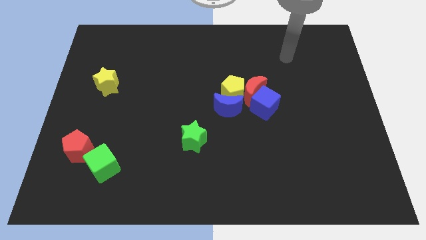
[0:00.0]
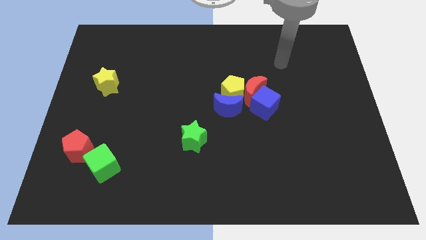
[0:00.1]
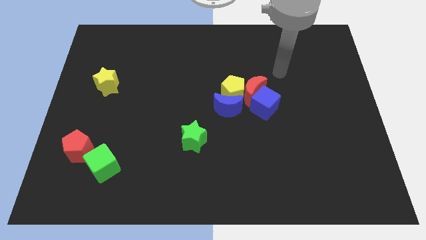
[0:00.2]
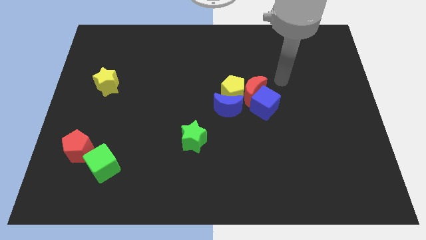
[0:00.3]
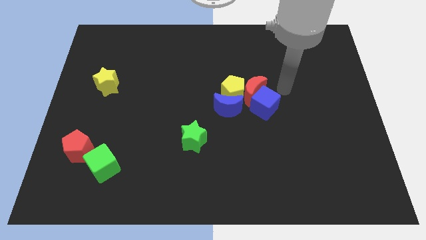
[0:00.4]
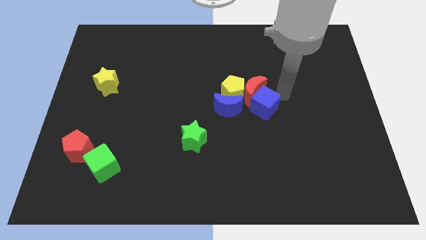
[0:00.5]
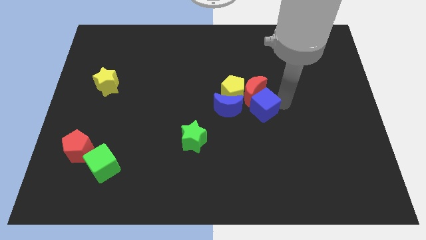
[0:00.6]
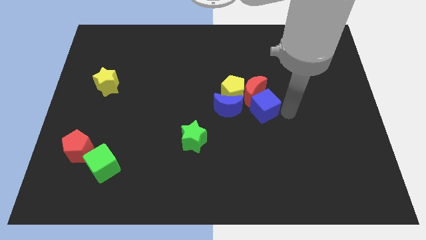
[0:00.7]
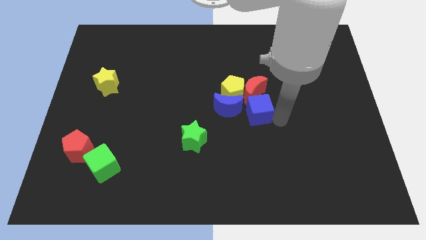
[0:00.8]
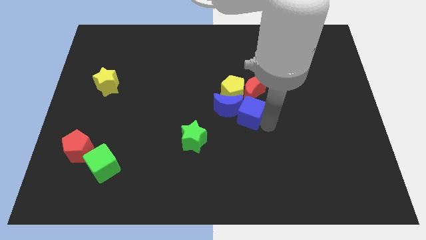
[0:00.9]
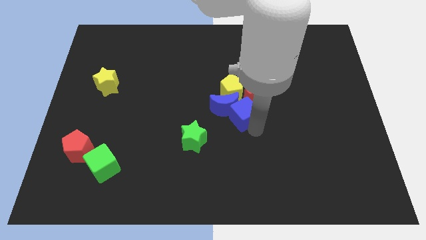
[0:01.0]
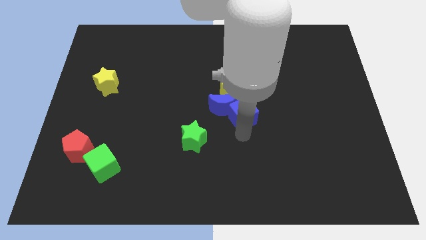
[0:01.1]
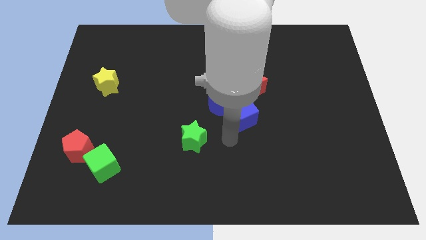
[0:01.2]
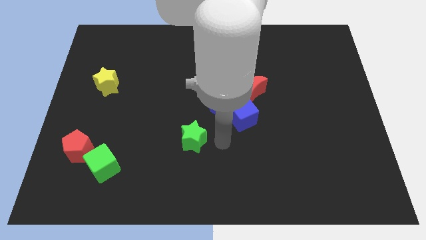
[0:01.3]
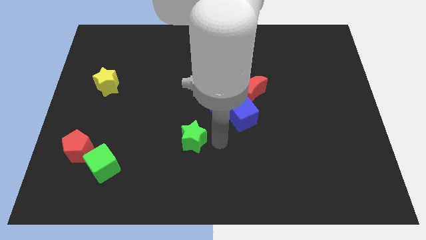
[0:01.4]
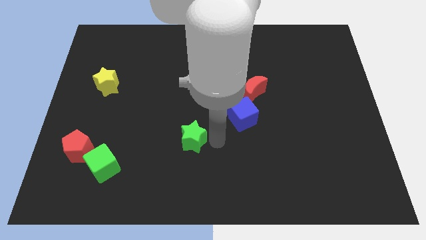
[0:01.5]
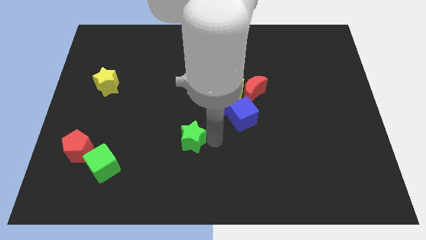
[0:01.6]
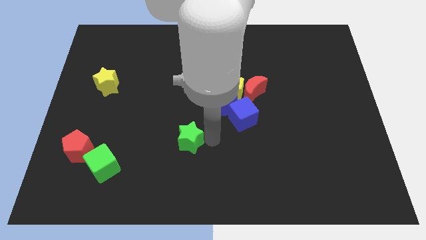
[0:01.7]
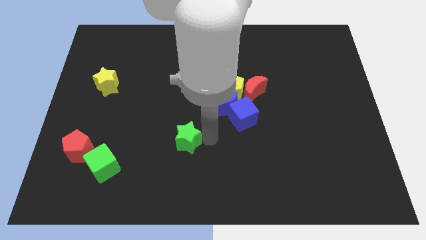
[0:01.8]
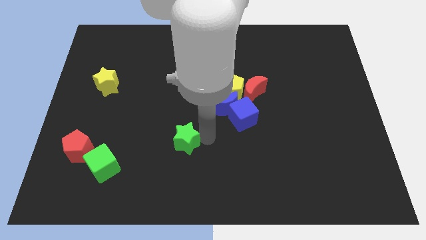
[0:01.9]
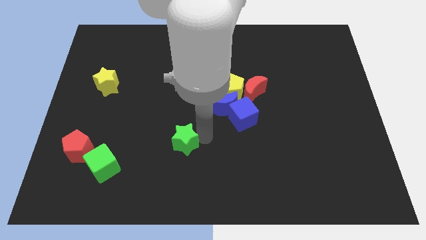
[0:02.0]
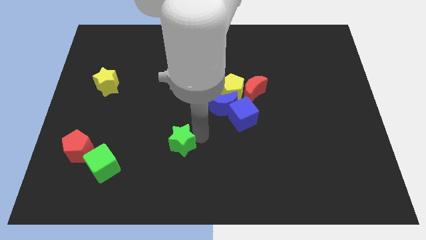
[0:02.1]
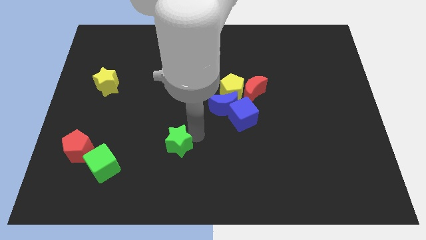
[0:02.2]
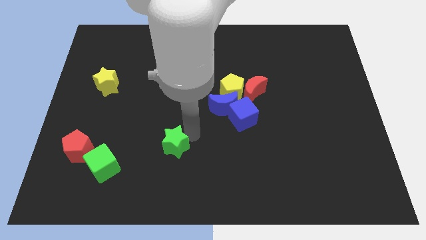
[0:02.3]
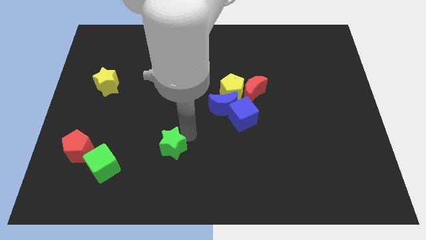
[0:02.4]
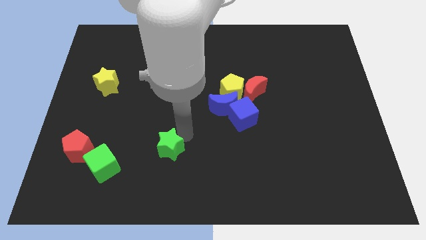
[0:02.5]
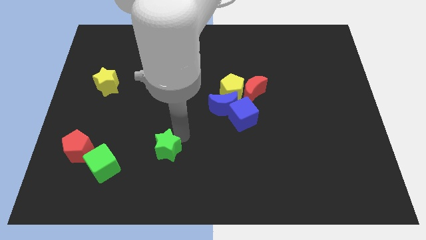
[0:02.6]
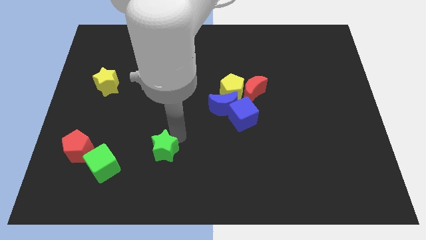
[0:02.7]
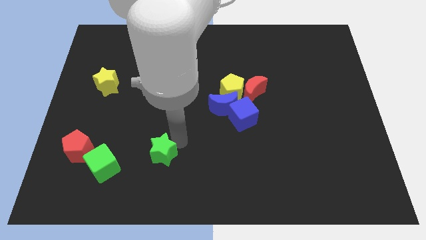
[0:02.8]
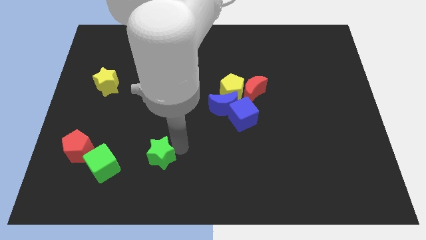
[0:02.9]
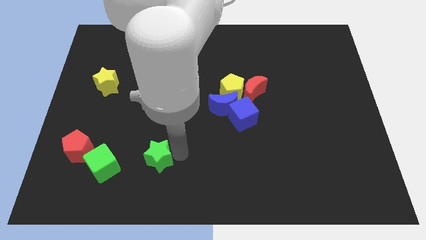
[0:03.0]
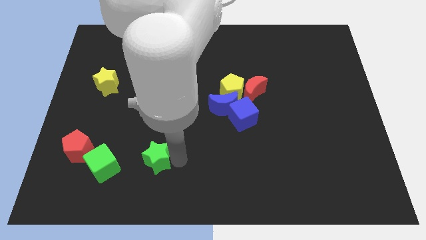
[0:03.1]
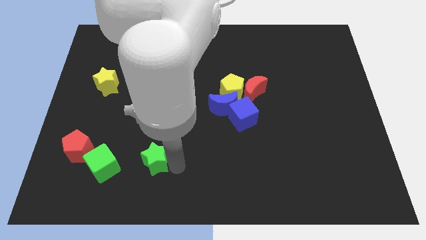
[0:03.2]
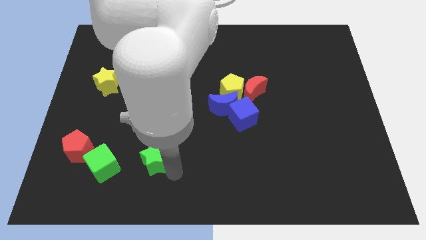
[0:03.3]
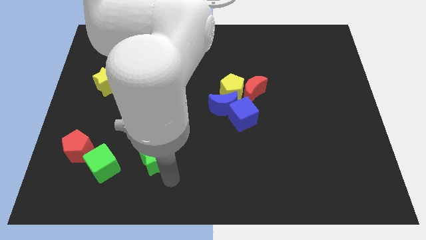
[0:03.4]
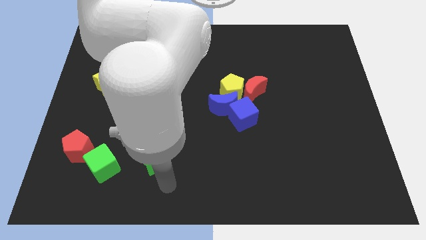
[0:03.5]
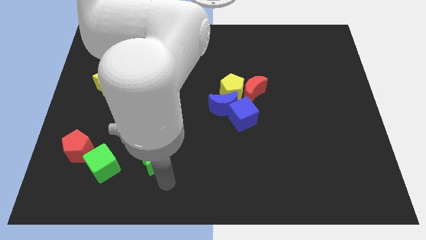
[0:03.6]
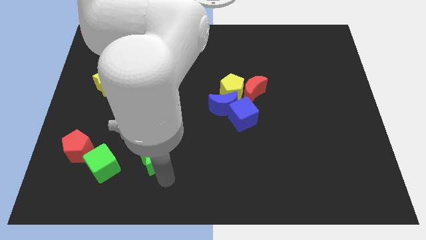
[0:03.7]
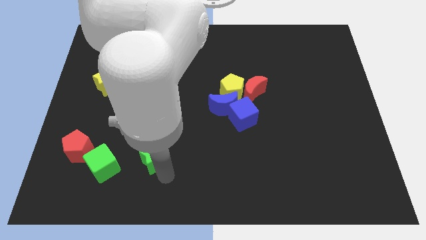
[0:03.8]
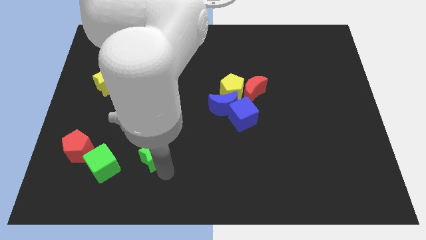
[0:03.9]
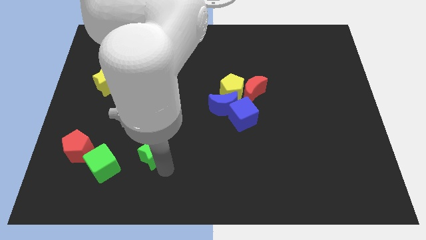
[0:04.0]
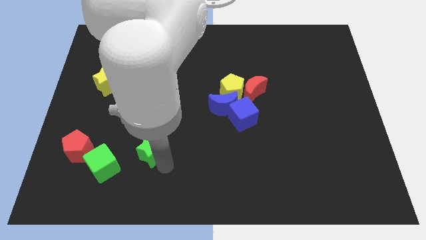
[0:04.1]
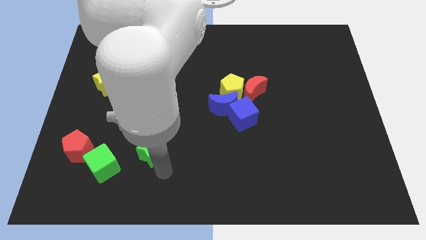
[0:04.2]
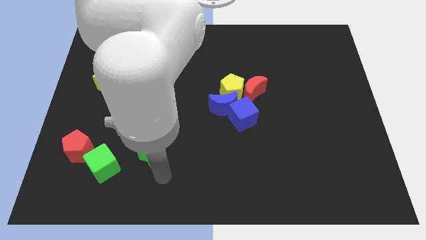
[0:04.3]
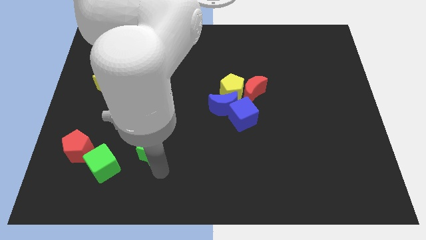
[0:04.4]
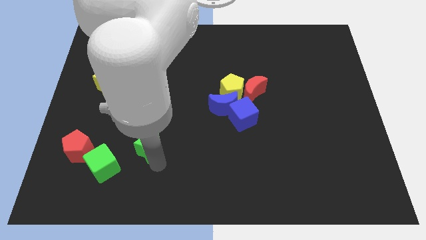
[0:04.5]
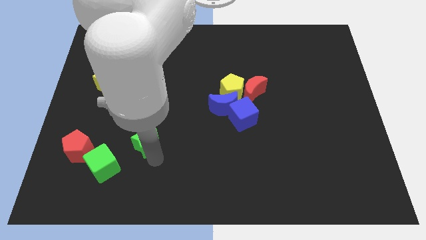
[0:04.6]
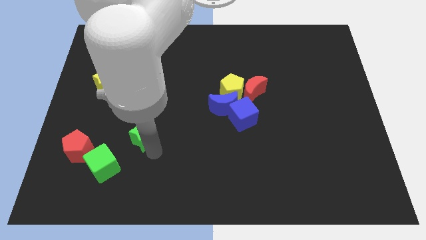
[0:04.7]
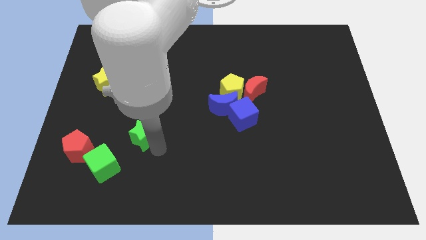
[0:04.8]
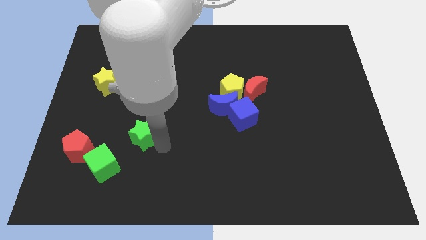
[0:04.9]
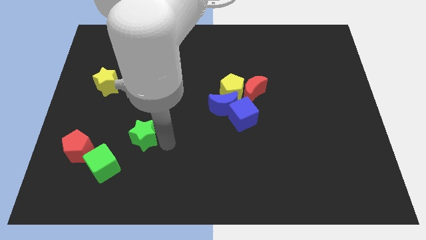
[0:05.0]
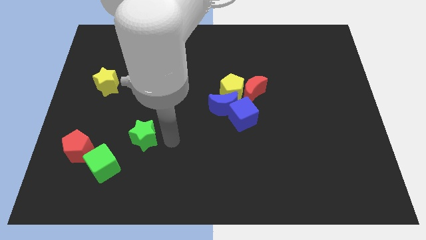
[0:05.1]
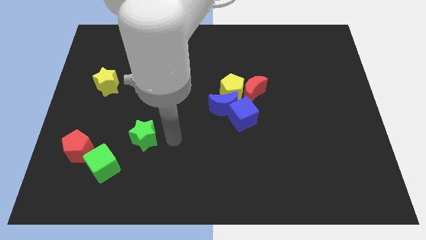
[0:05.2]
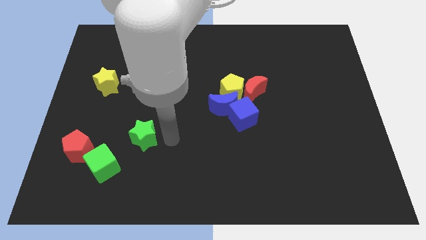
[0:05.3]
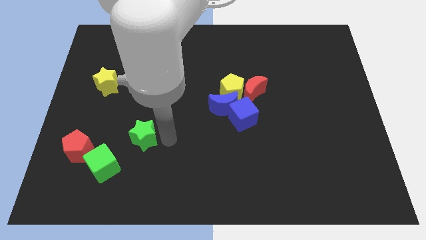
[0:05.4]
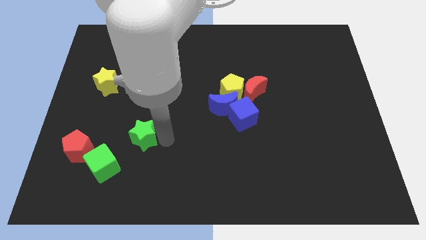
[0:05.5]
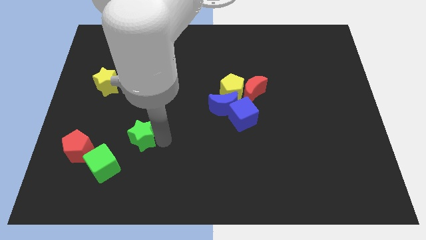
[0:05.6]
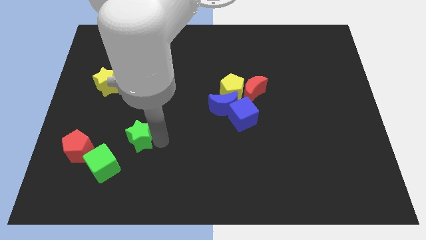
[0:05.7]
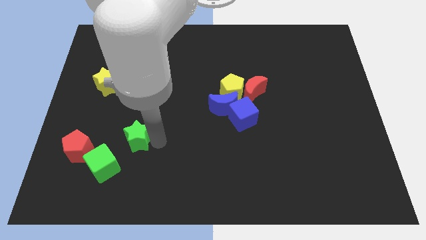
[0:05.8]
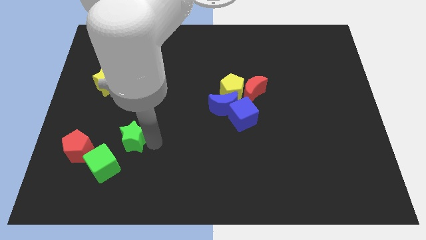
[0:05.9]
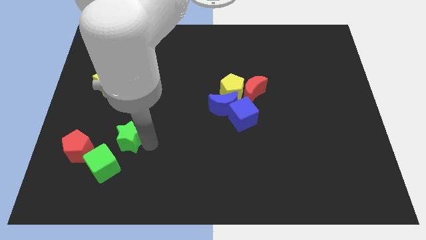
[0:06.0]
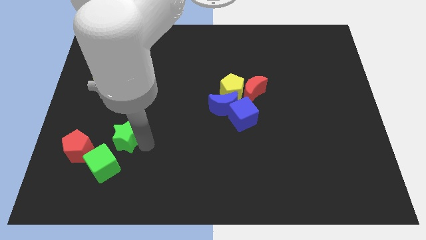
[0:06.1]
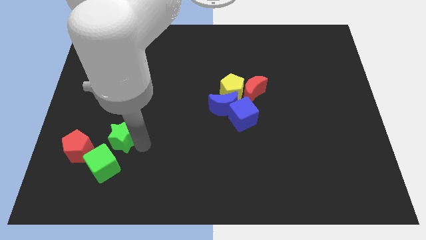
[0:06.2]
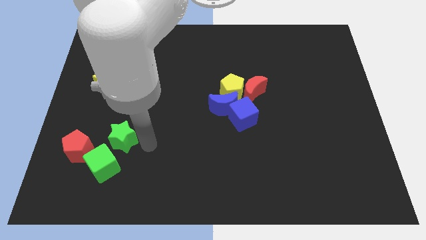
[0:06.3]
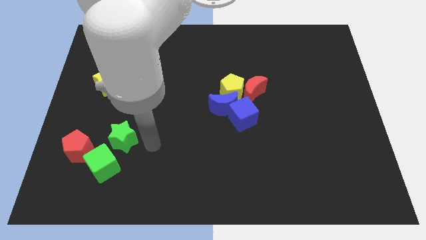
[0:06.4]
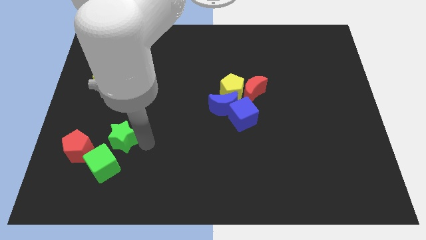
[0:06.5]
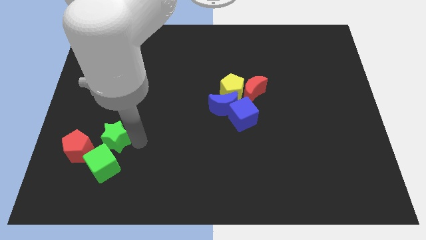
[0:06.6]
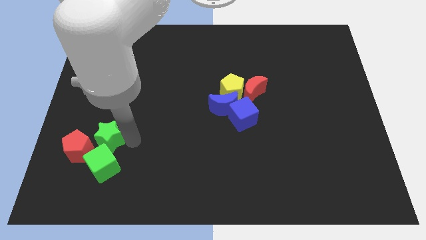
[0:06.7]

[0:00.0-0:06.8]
put the green star to the top left side of the green cube

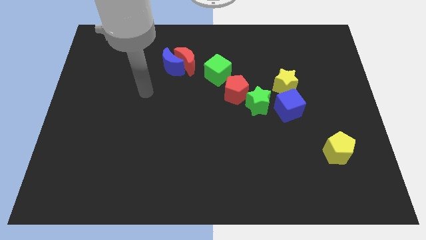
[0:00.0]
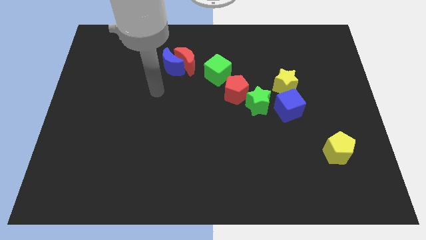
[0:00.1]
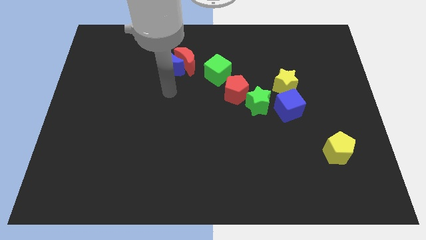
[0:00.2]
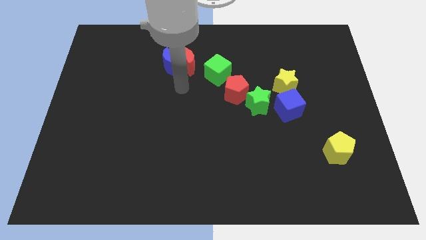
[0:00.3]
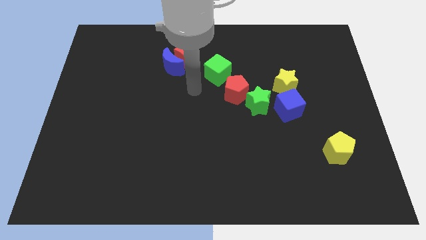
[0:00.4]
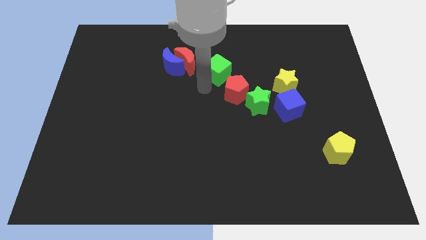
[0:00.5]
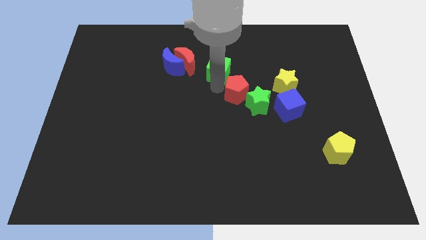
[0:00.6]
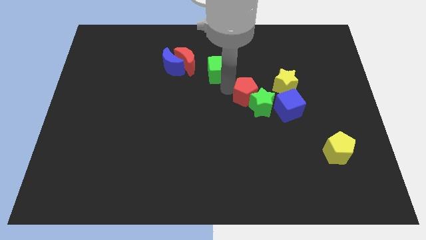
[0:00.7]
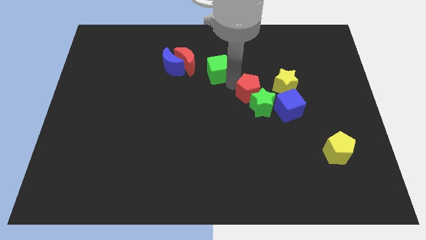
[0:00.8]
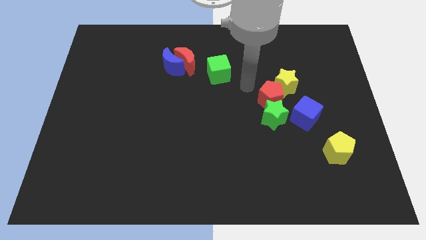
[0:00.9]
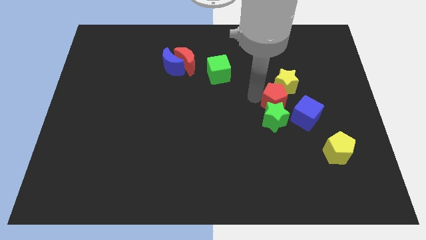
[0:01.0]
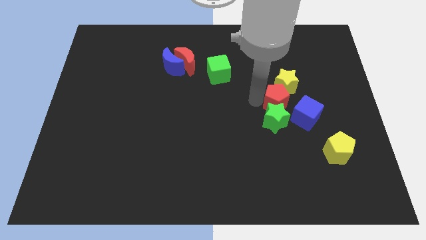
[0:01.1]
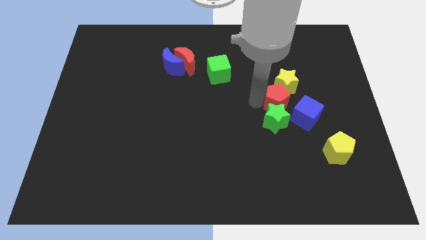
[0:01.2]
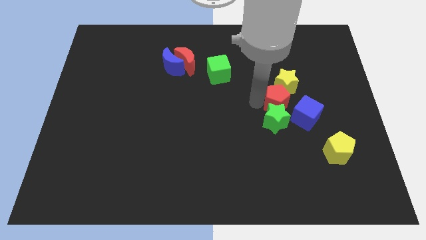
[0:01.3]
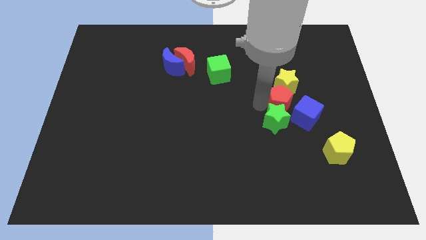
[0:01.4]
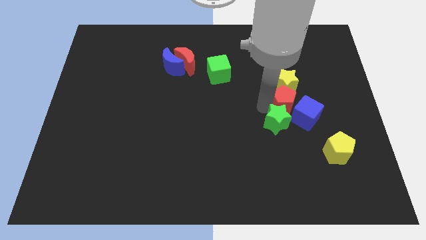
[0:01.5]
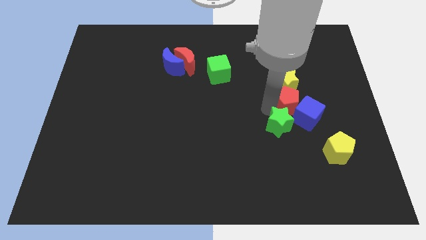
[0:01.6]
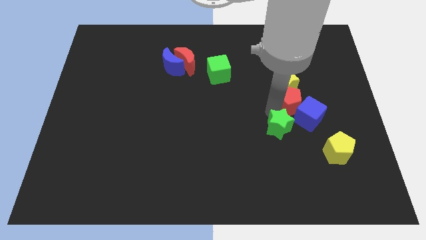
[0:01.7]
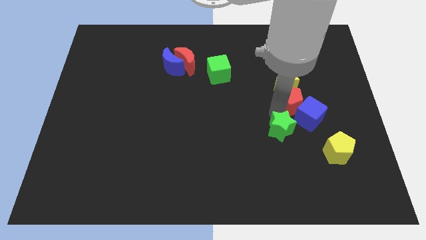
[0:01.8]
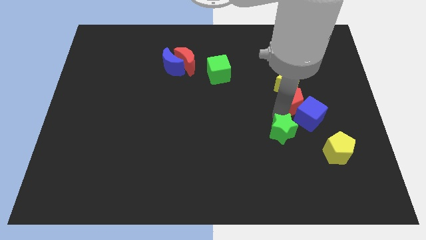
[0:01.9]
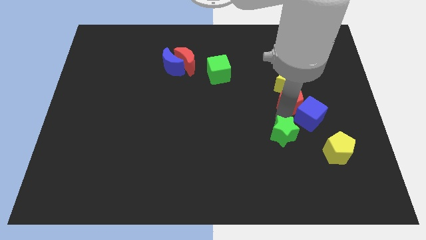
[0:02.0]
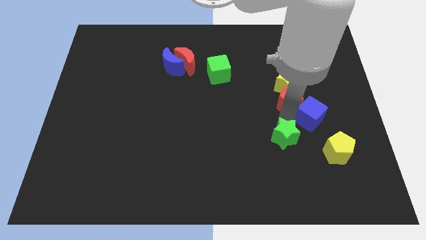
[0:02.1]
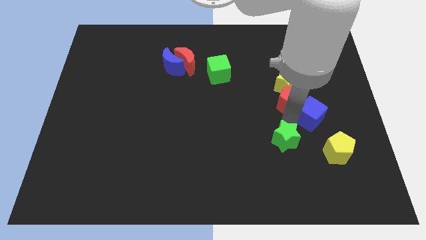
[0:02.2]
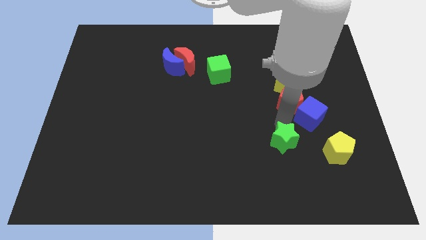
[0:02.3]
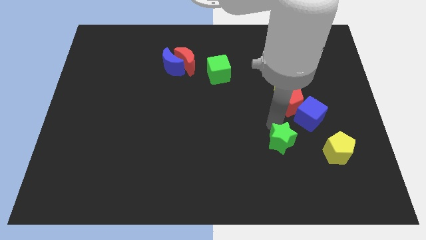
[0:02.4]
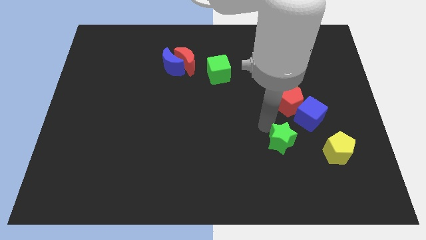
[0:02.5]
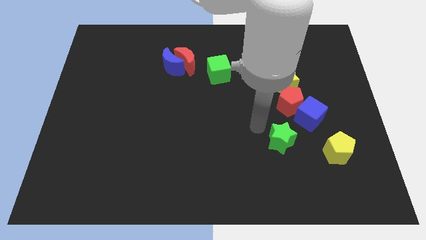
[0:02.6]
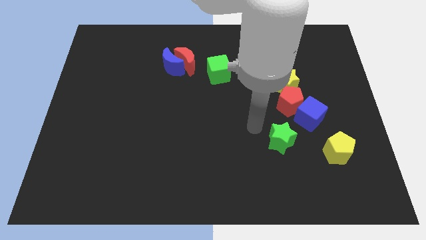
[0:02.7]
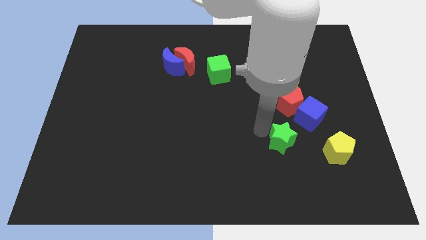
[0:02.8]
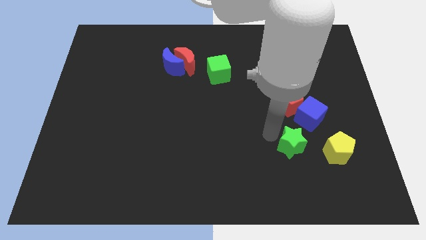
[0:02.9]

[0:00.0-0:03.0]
move the green star to the bottom side of the blue cube
